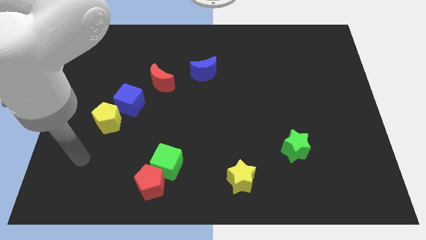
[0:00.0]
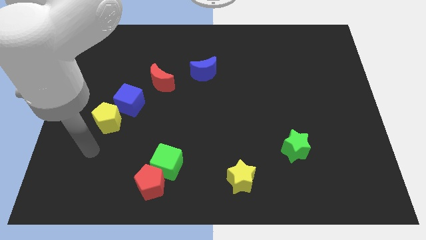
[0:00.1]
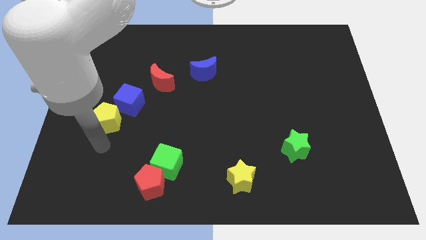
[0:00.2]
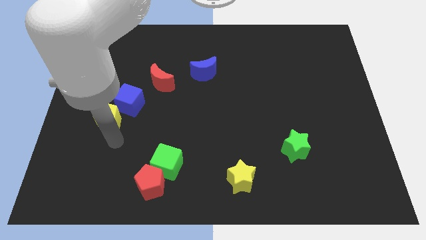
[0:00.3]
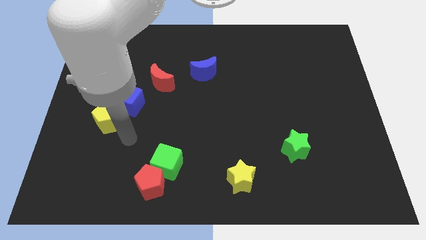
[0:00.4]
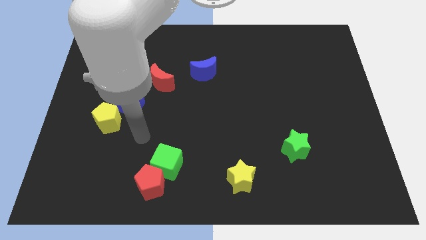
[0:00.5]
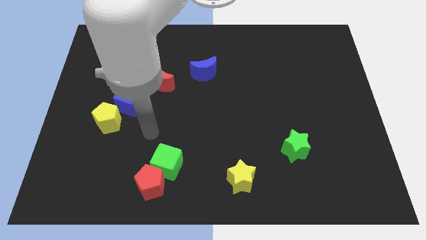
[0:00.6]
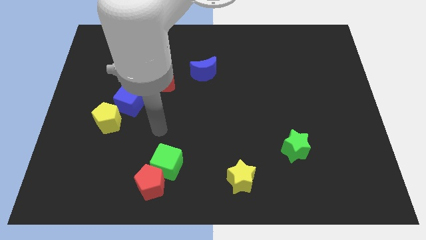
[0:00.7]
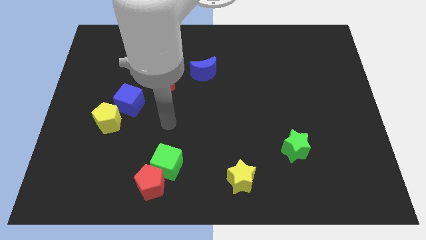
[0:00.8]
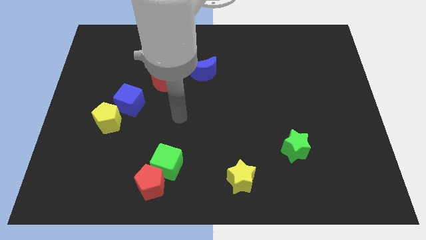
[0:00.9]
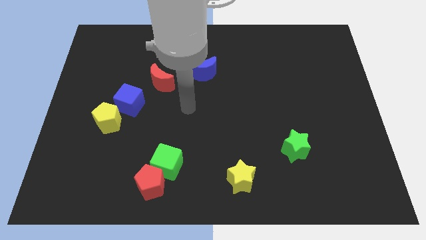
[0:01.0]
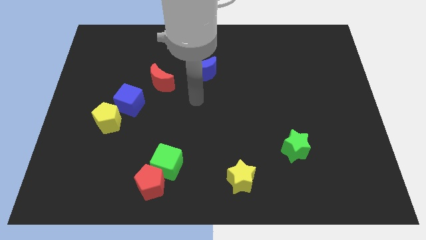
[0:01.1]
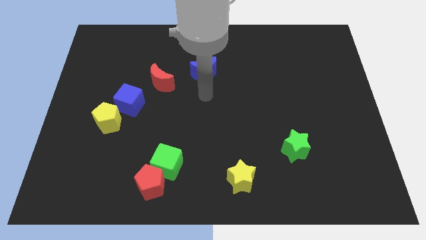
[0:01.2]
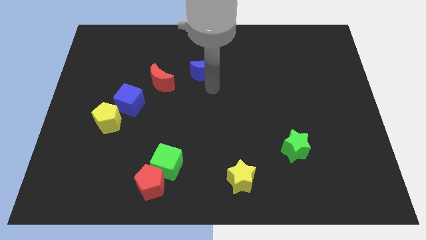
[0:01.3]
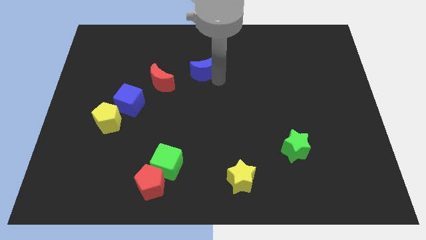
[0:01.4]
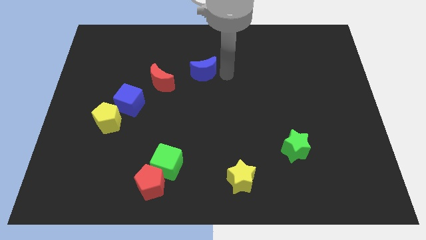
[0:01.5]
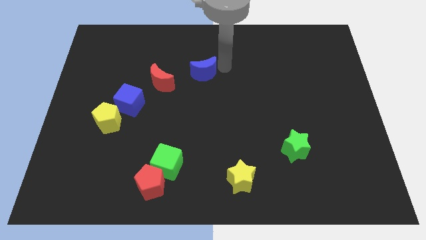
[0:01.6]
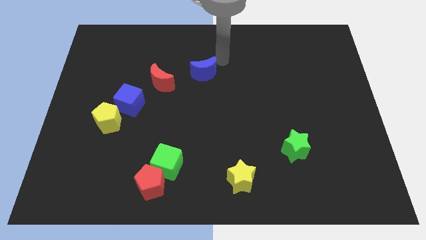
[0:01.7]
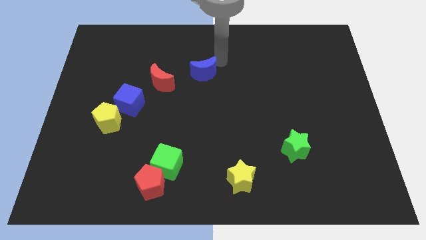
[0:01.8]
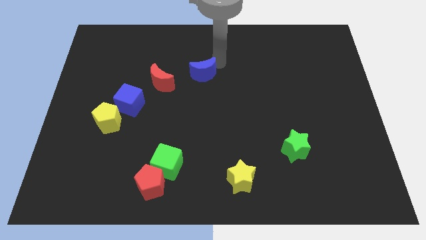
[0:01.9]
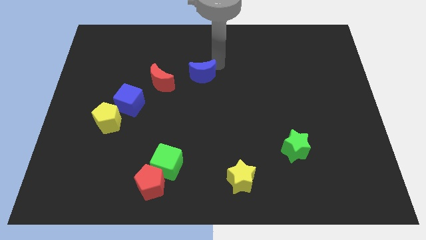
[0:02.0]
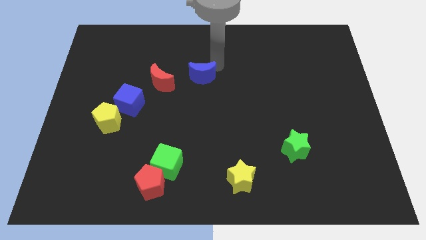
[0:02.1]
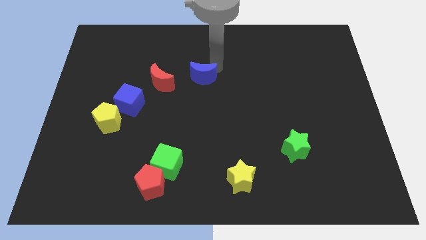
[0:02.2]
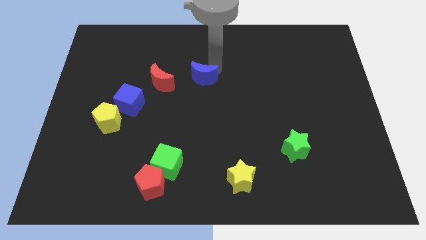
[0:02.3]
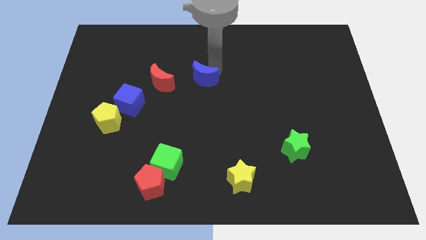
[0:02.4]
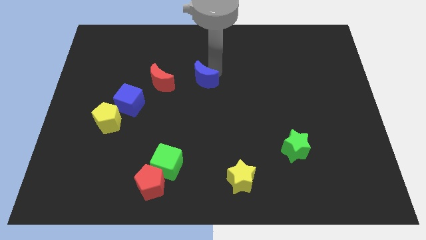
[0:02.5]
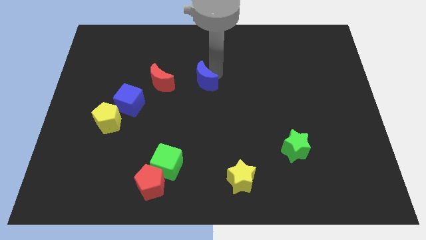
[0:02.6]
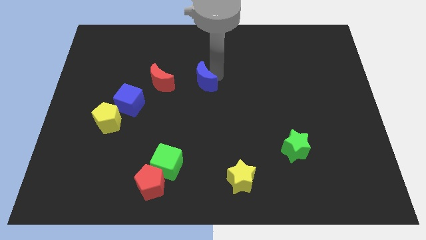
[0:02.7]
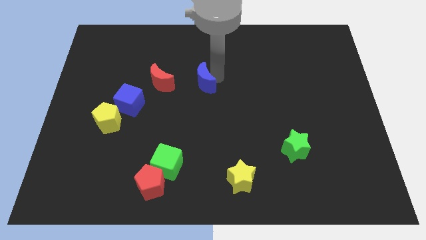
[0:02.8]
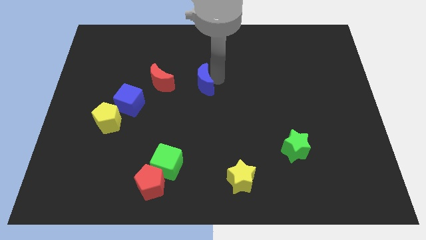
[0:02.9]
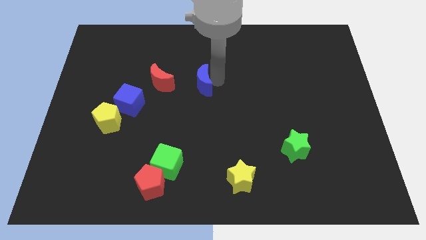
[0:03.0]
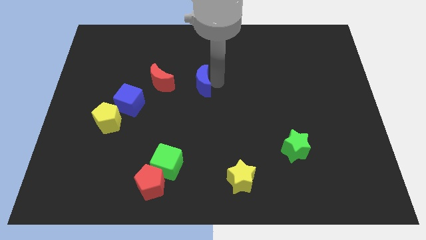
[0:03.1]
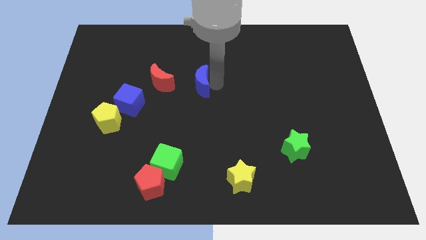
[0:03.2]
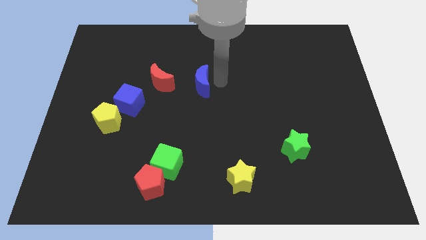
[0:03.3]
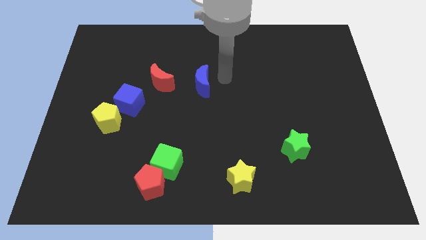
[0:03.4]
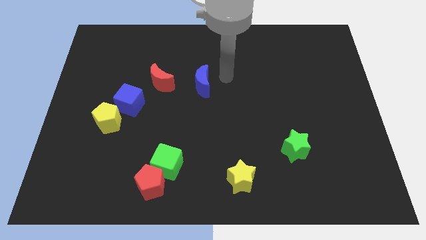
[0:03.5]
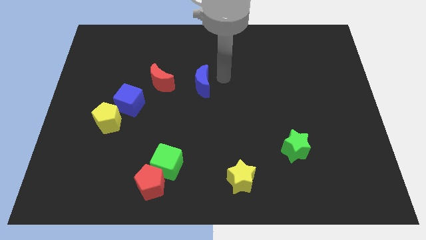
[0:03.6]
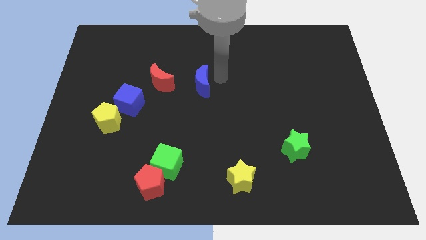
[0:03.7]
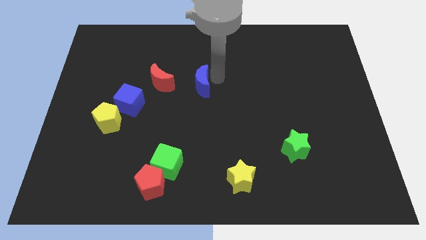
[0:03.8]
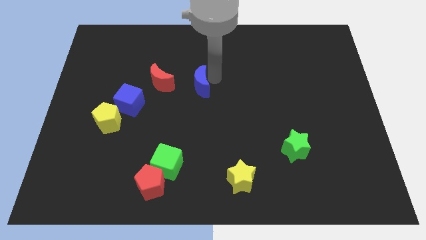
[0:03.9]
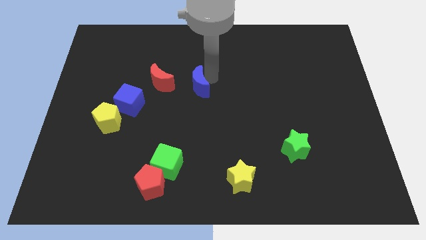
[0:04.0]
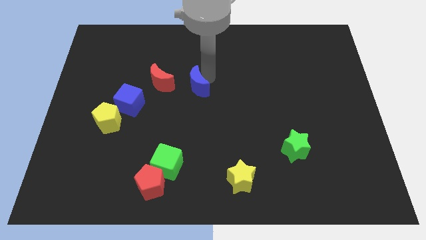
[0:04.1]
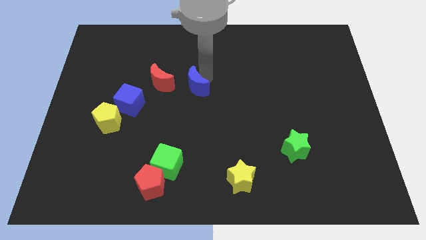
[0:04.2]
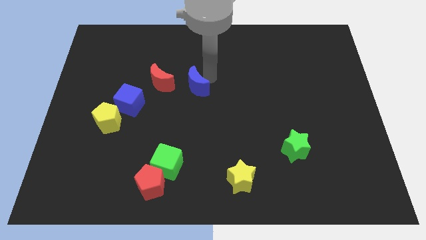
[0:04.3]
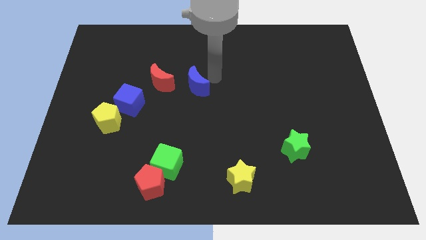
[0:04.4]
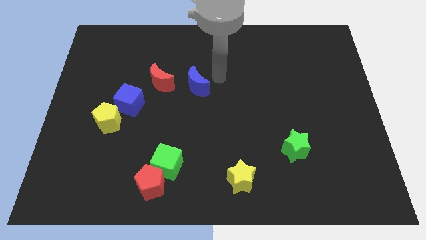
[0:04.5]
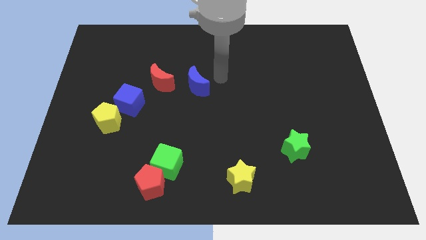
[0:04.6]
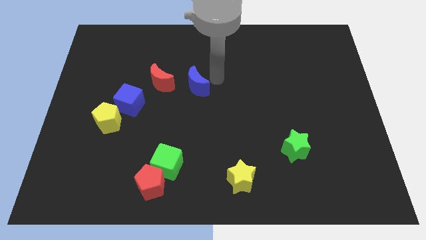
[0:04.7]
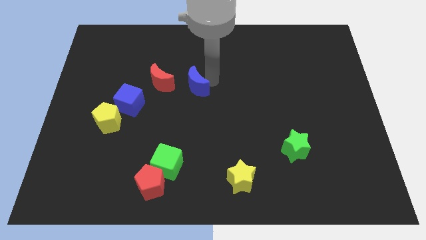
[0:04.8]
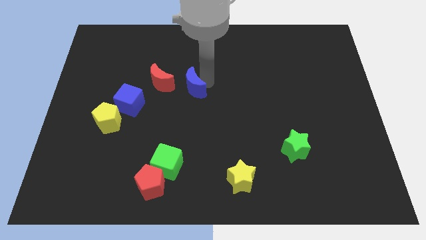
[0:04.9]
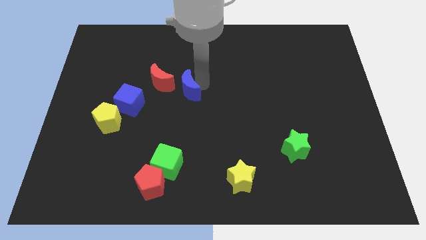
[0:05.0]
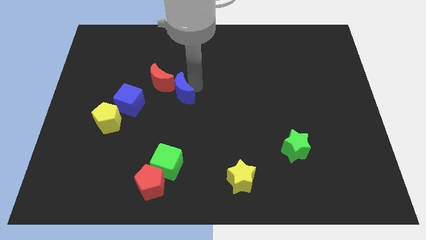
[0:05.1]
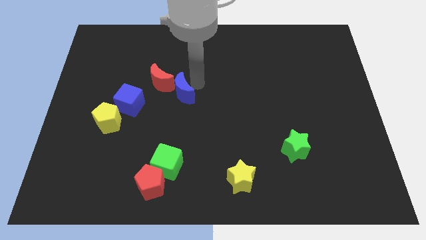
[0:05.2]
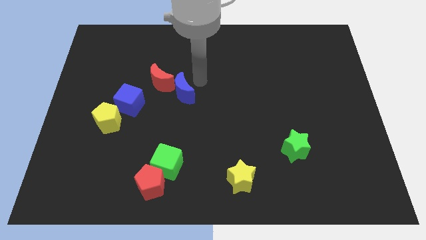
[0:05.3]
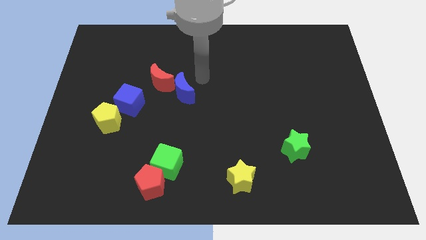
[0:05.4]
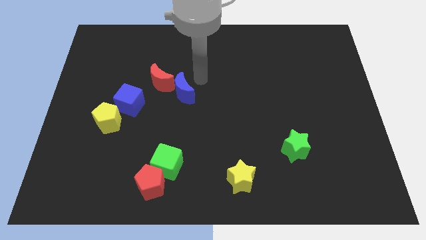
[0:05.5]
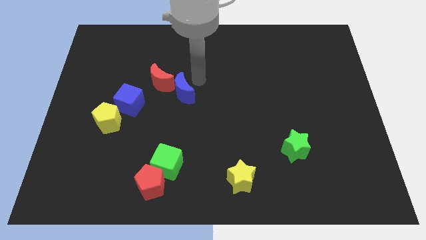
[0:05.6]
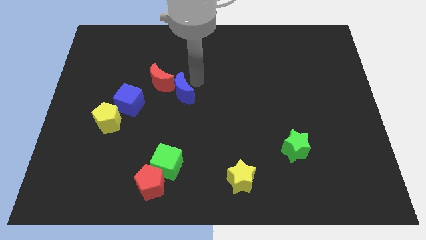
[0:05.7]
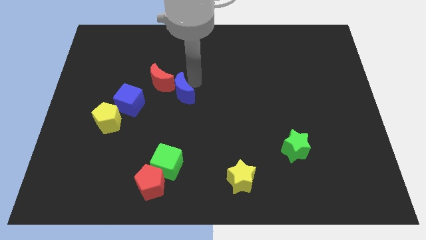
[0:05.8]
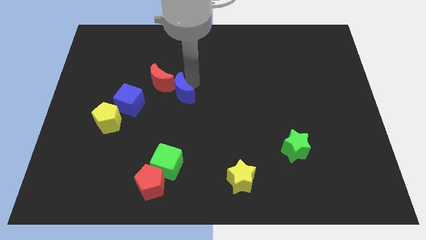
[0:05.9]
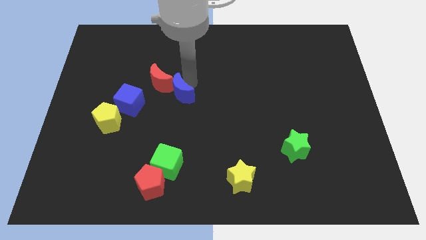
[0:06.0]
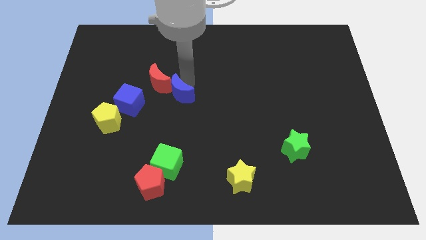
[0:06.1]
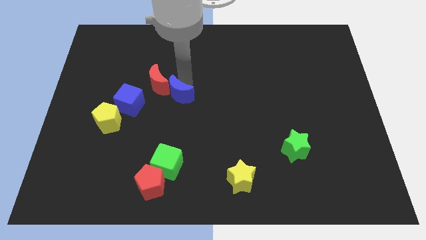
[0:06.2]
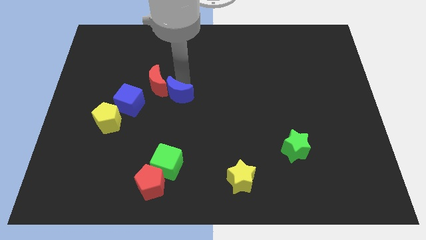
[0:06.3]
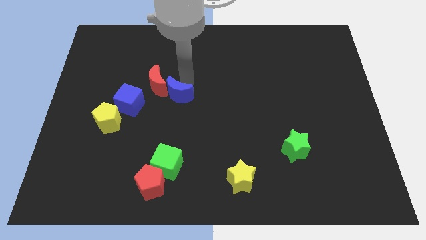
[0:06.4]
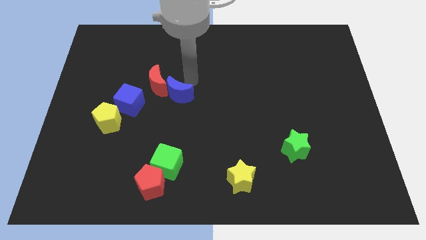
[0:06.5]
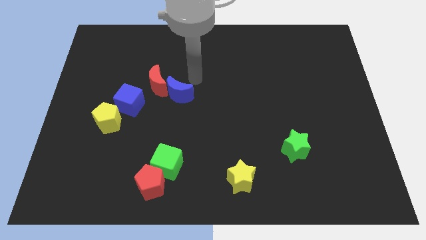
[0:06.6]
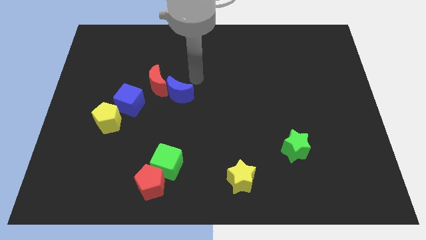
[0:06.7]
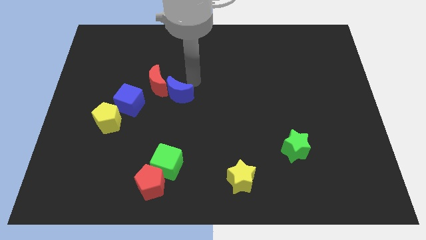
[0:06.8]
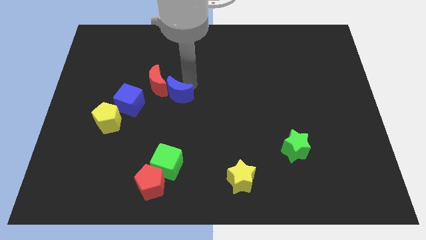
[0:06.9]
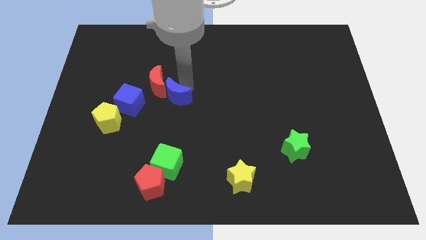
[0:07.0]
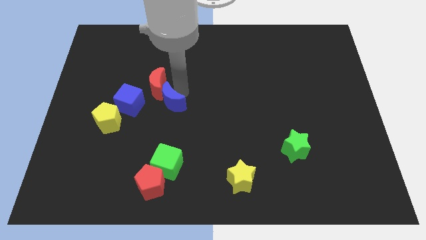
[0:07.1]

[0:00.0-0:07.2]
move the blue moon to the bottom of the red moon

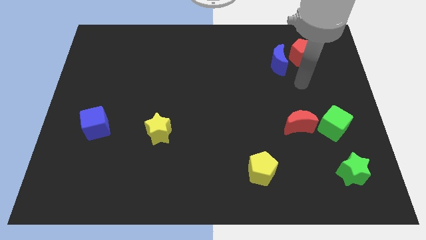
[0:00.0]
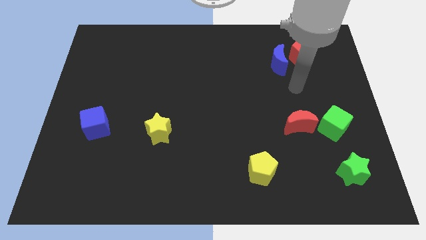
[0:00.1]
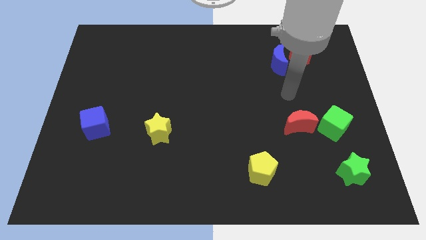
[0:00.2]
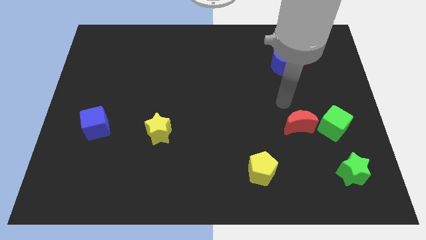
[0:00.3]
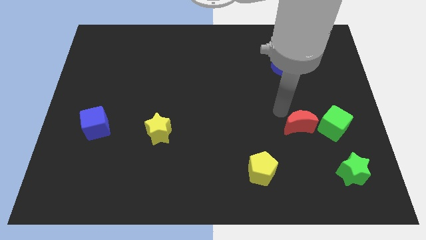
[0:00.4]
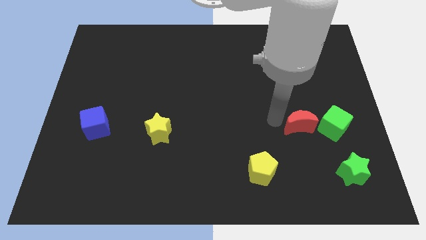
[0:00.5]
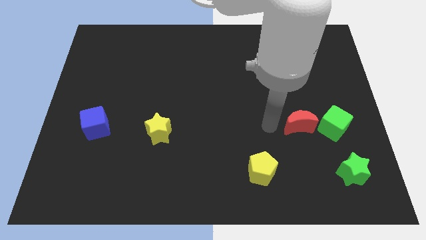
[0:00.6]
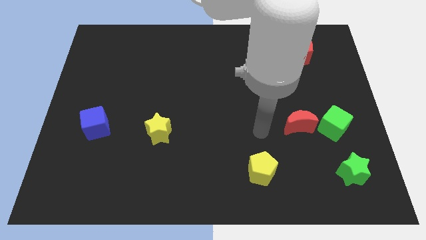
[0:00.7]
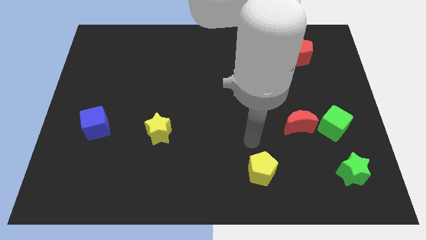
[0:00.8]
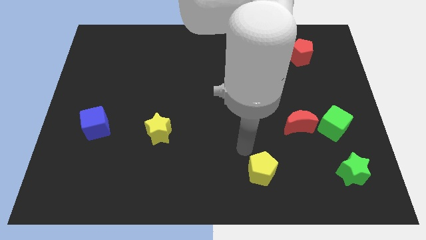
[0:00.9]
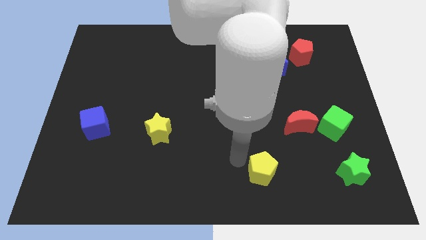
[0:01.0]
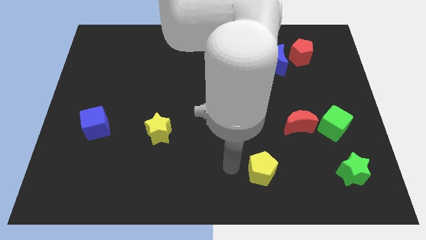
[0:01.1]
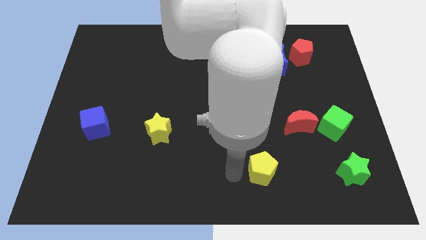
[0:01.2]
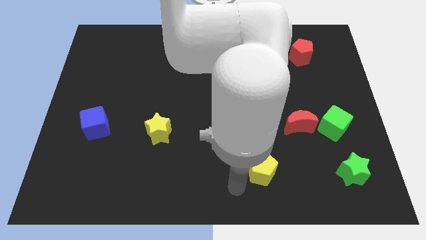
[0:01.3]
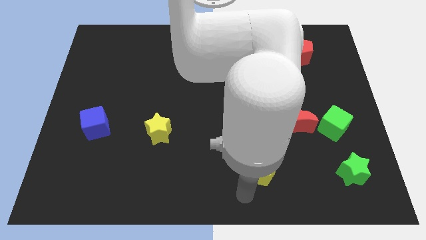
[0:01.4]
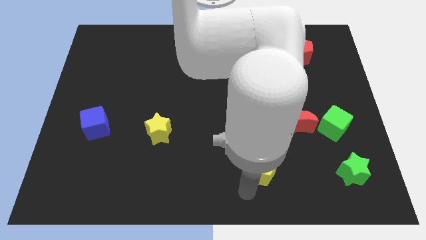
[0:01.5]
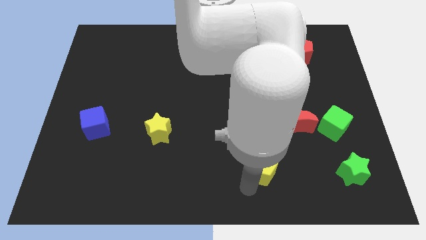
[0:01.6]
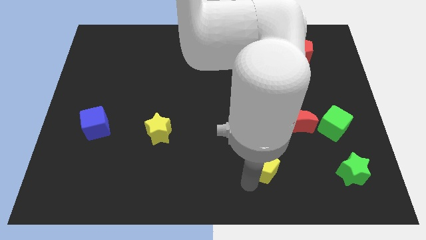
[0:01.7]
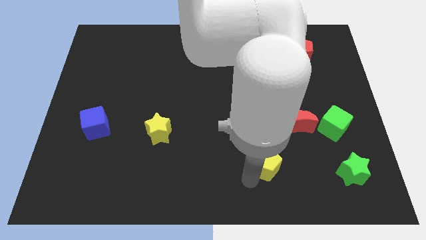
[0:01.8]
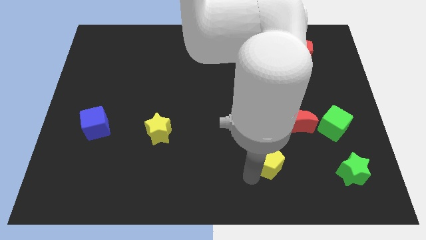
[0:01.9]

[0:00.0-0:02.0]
slide the yellow pentagon to the bottom left of the red moon
